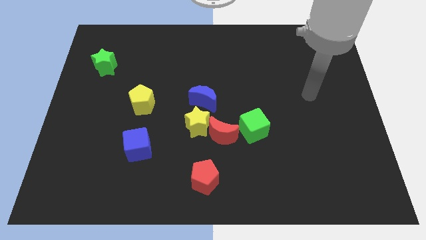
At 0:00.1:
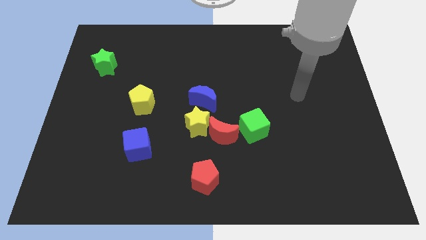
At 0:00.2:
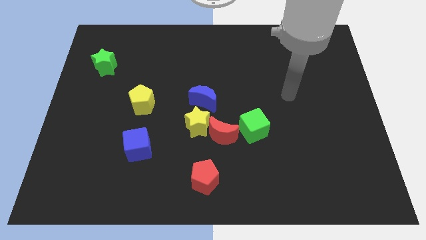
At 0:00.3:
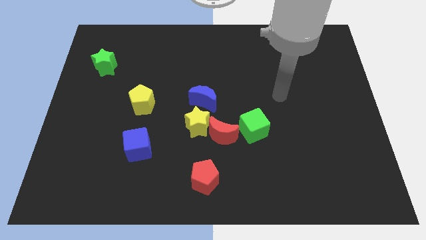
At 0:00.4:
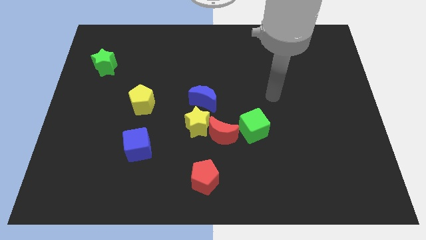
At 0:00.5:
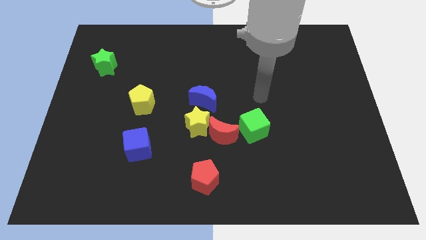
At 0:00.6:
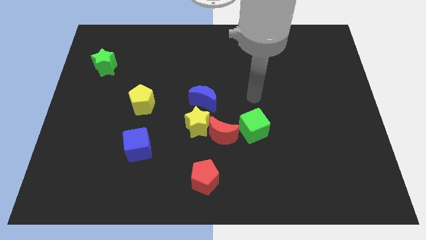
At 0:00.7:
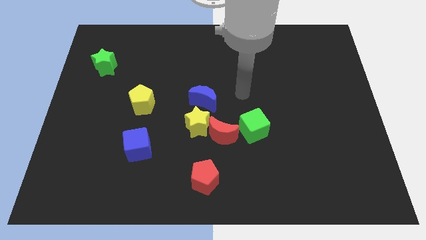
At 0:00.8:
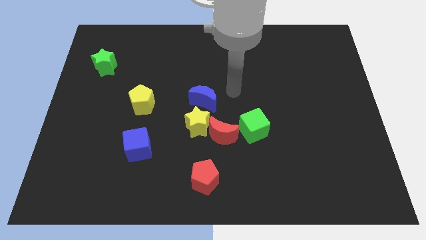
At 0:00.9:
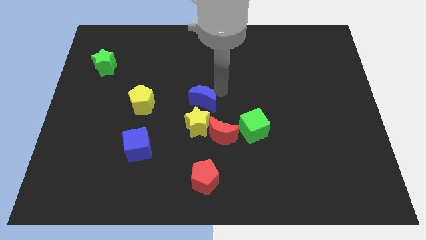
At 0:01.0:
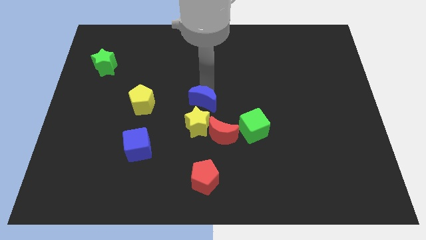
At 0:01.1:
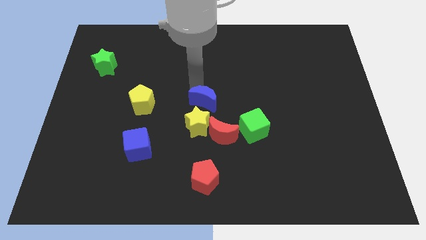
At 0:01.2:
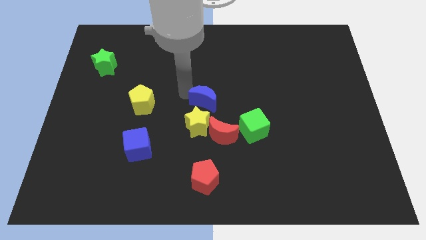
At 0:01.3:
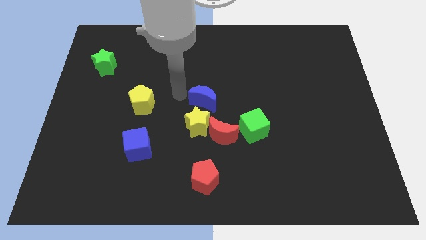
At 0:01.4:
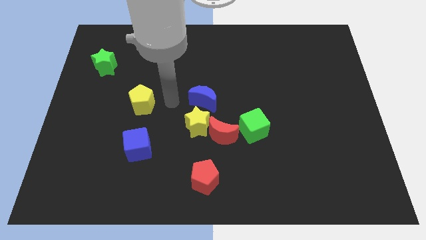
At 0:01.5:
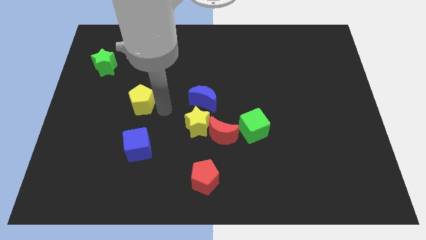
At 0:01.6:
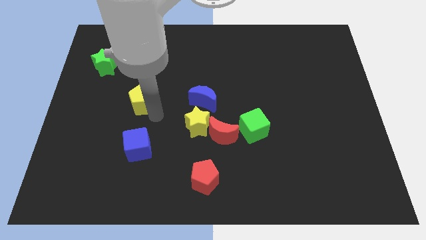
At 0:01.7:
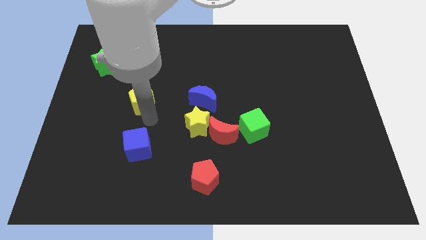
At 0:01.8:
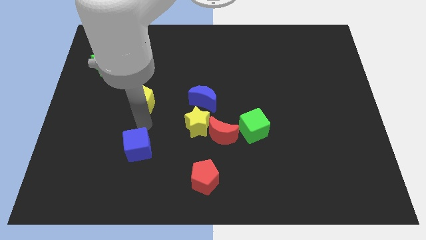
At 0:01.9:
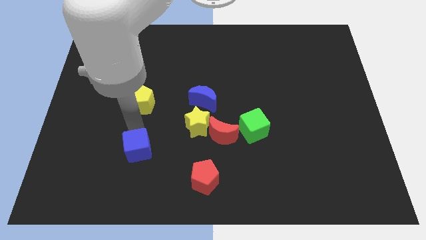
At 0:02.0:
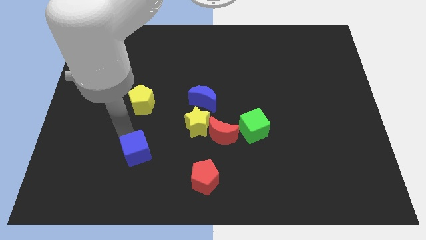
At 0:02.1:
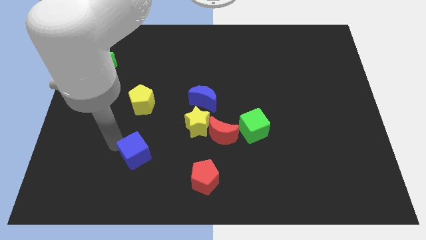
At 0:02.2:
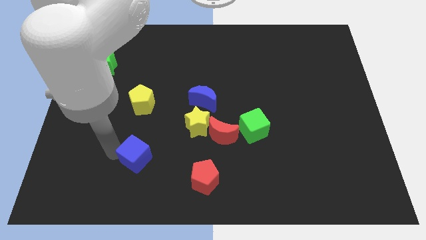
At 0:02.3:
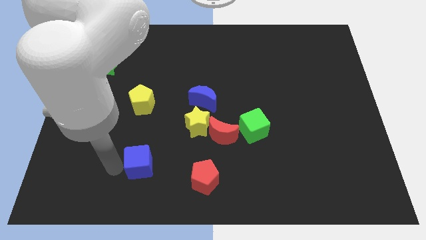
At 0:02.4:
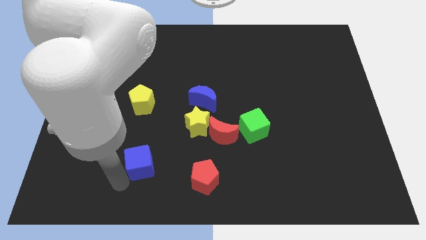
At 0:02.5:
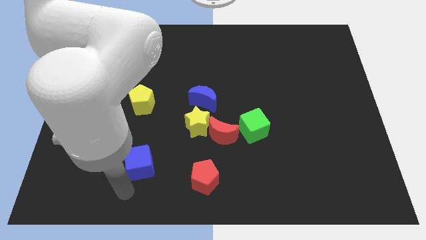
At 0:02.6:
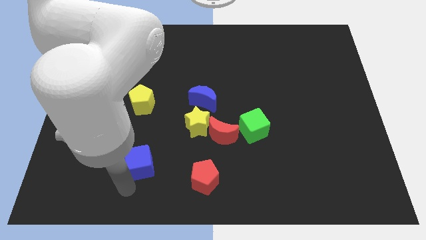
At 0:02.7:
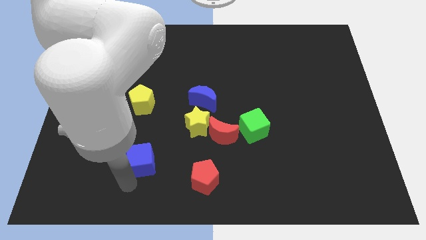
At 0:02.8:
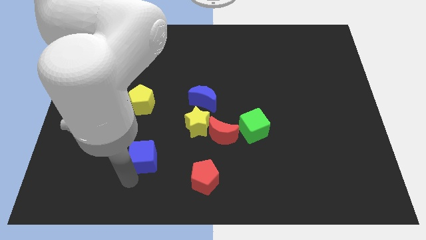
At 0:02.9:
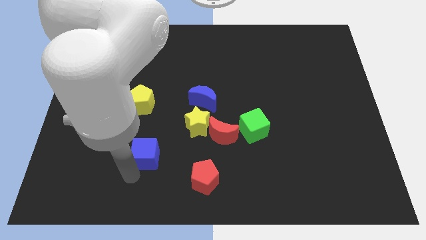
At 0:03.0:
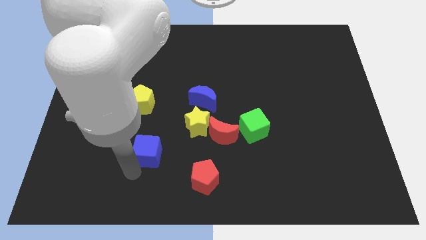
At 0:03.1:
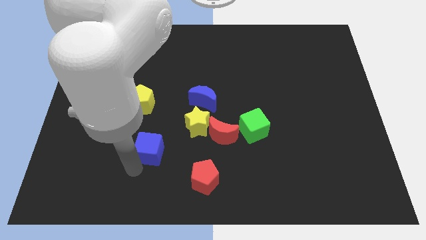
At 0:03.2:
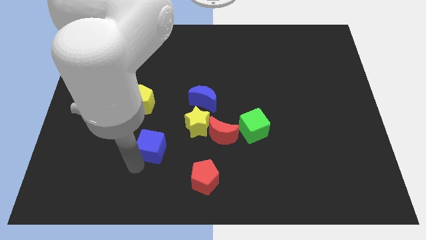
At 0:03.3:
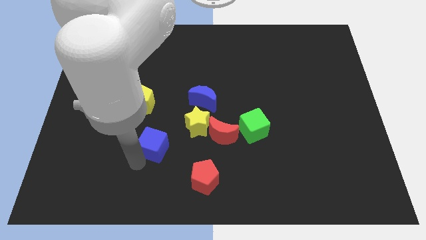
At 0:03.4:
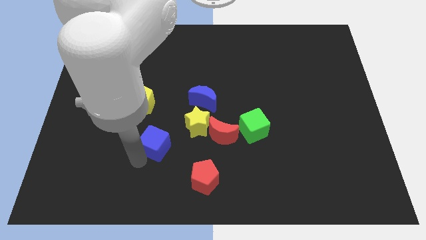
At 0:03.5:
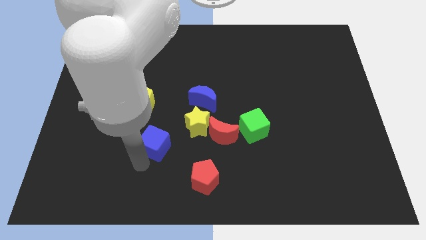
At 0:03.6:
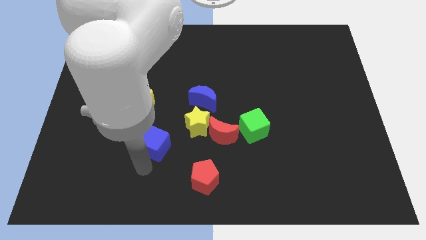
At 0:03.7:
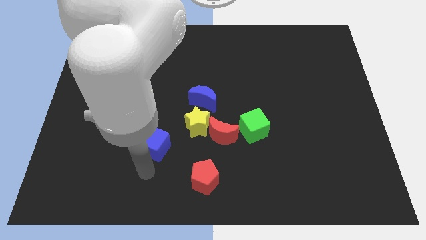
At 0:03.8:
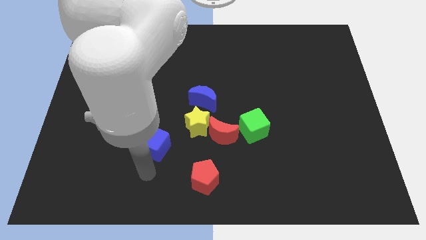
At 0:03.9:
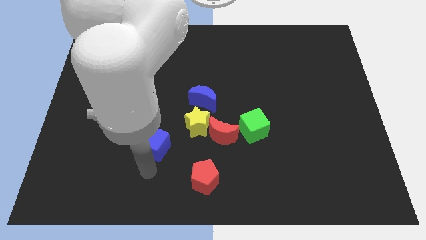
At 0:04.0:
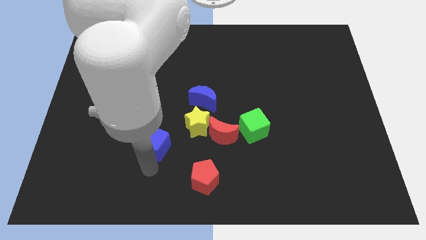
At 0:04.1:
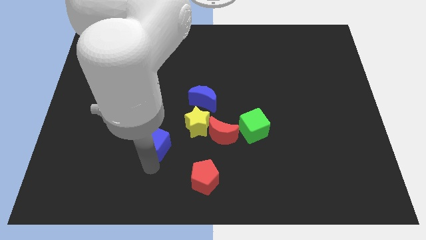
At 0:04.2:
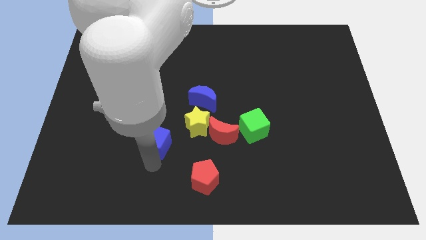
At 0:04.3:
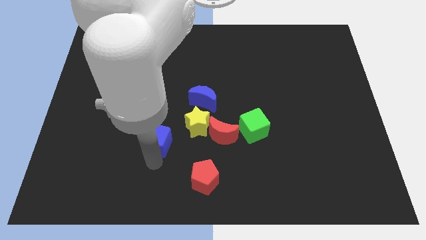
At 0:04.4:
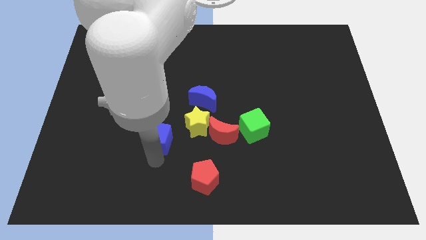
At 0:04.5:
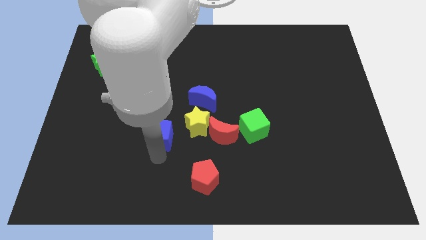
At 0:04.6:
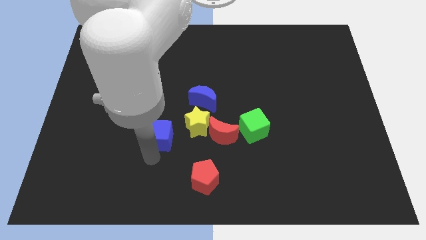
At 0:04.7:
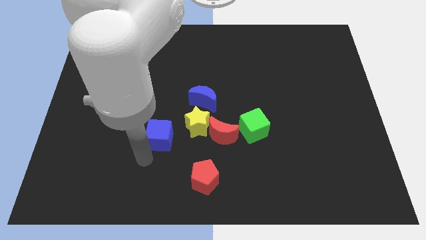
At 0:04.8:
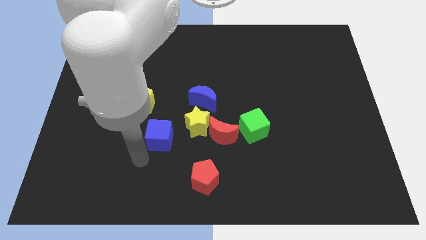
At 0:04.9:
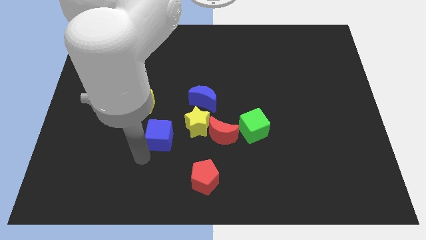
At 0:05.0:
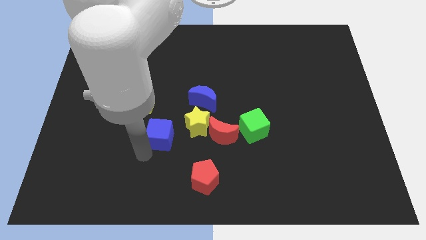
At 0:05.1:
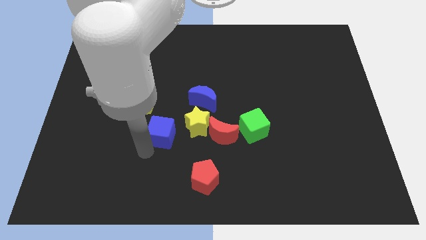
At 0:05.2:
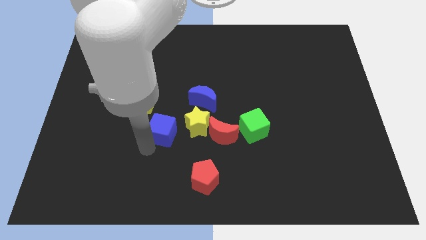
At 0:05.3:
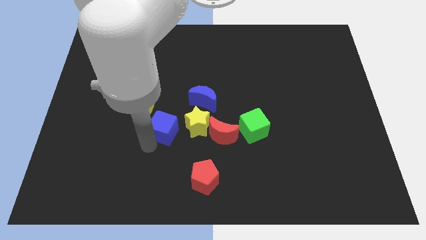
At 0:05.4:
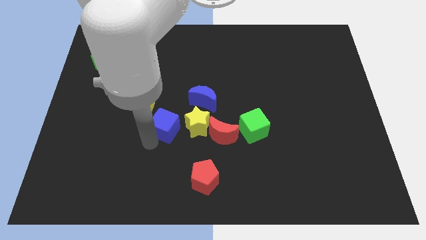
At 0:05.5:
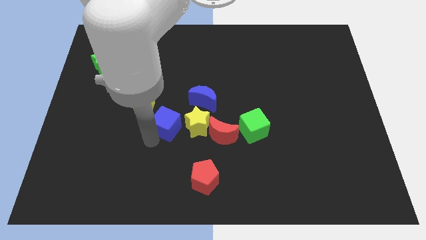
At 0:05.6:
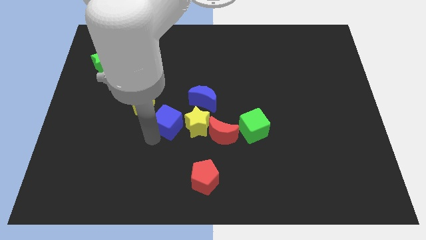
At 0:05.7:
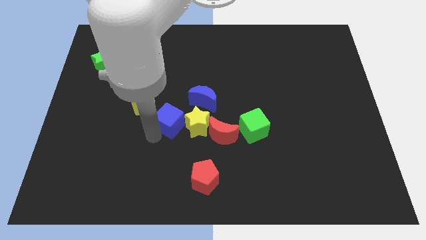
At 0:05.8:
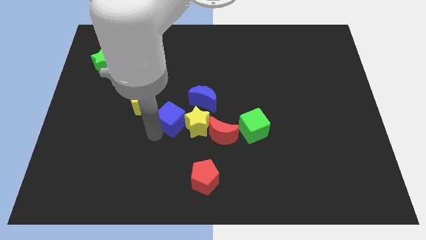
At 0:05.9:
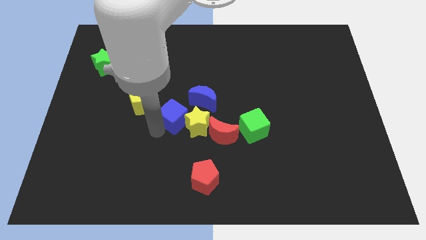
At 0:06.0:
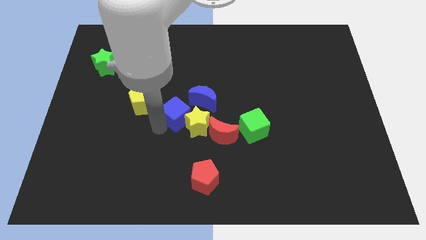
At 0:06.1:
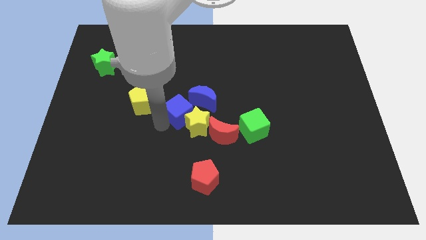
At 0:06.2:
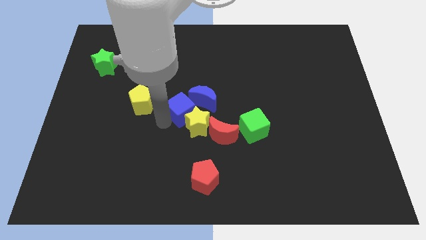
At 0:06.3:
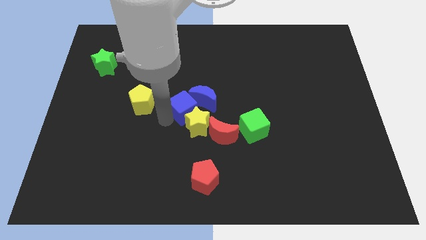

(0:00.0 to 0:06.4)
move the blue cube towards the blue moon

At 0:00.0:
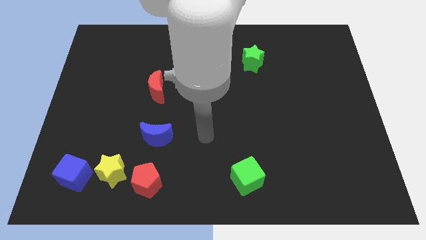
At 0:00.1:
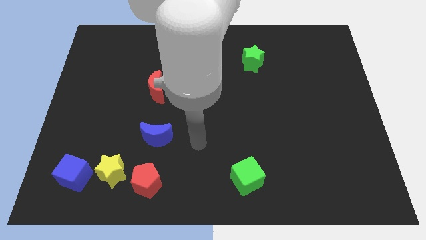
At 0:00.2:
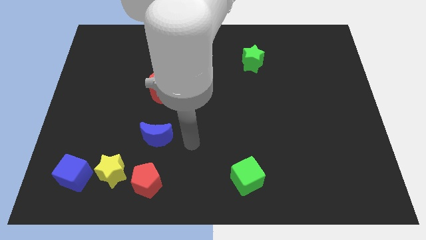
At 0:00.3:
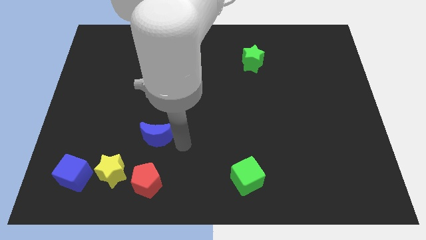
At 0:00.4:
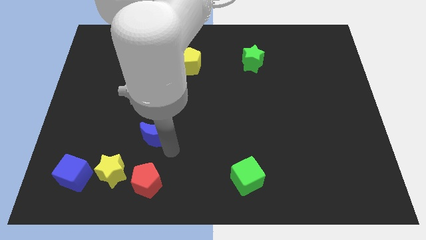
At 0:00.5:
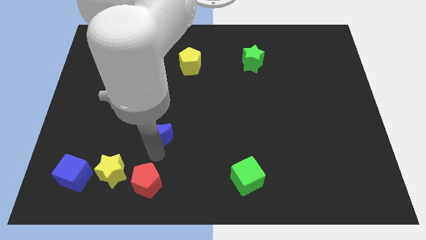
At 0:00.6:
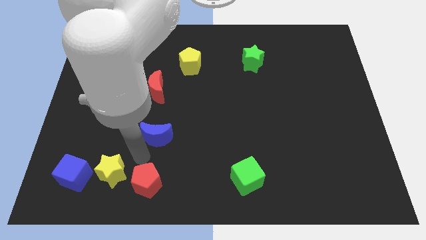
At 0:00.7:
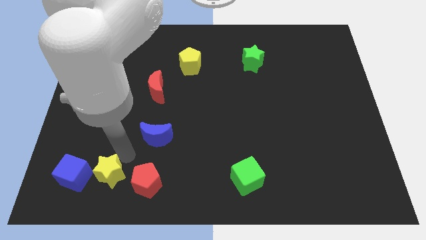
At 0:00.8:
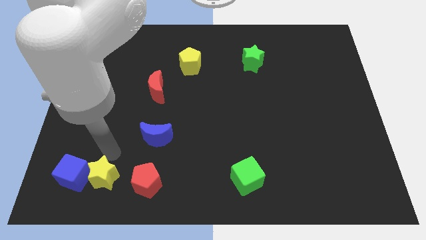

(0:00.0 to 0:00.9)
move the blue cube close to the yellow star

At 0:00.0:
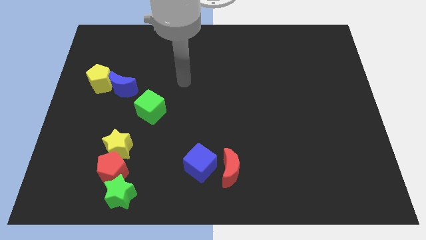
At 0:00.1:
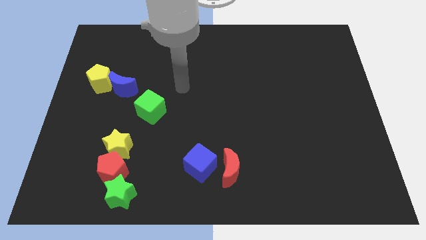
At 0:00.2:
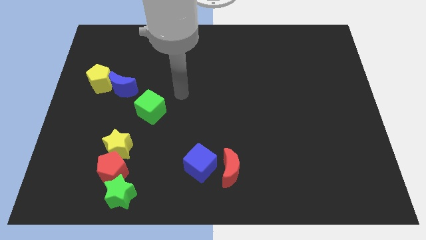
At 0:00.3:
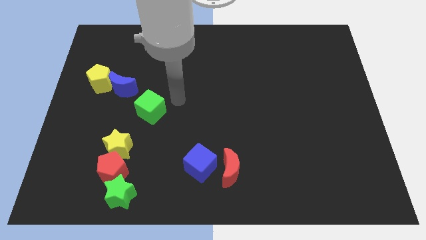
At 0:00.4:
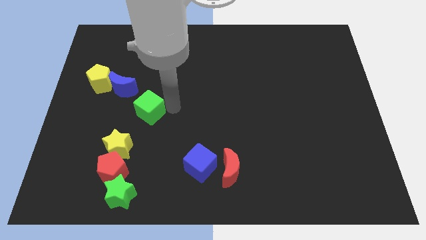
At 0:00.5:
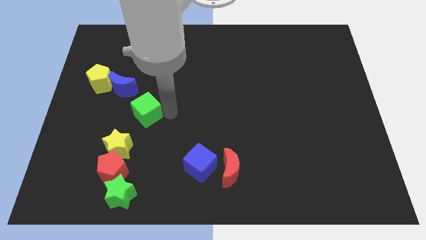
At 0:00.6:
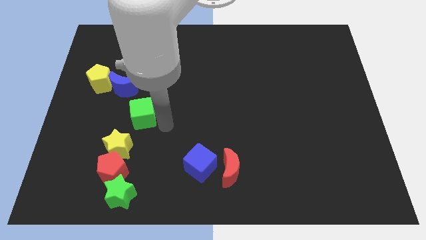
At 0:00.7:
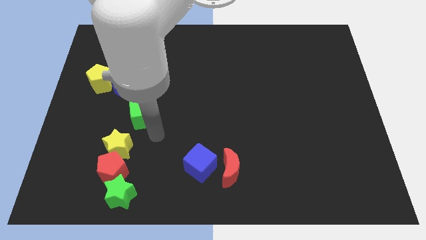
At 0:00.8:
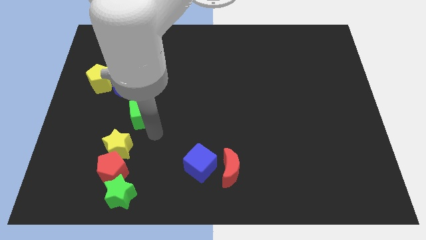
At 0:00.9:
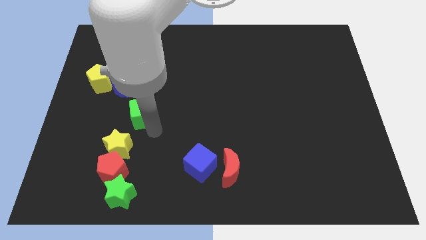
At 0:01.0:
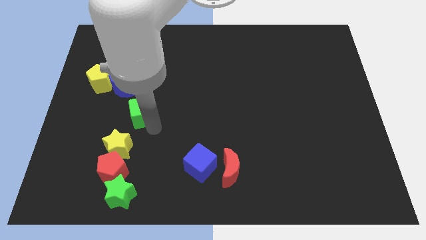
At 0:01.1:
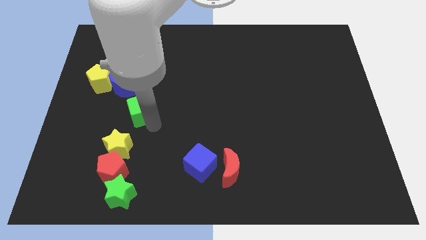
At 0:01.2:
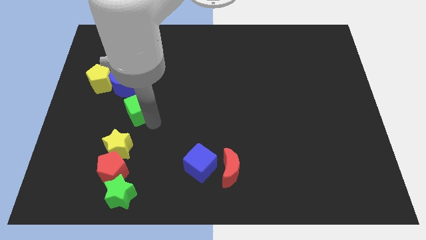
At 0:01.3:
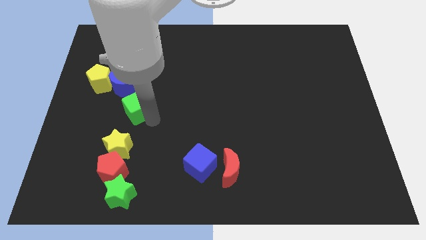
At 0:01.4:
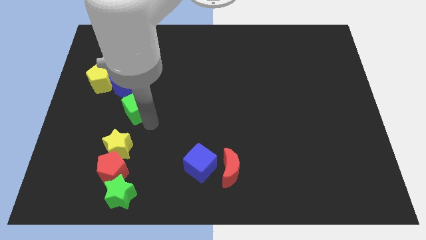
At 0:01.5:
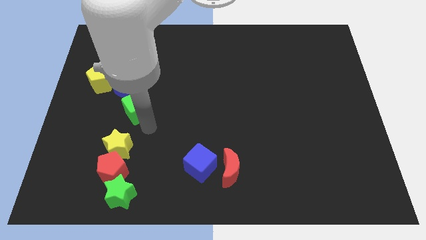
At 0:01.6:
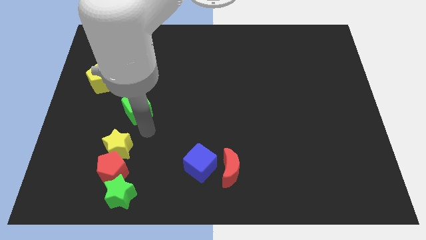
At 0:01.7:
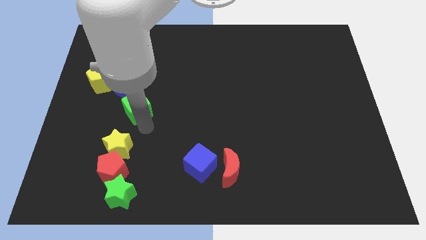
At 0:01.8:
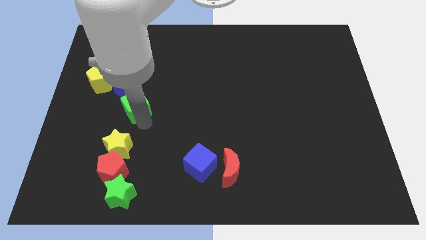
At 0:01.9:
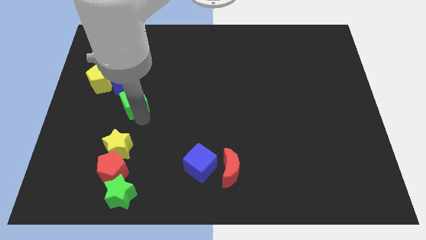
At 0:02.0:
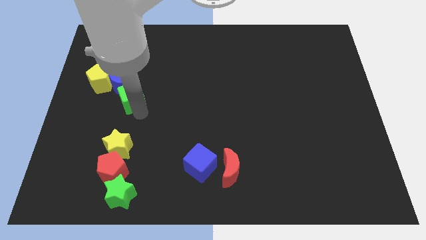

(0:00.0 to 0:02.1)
slide the green cube to the blue moon
